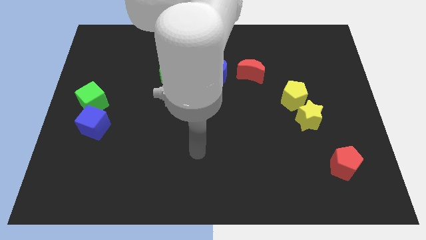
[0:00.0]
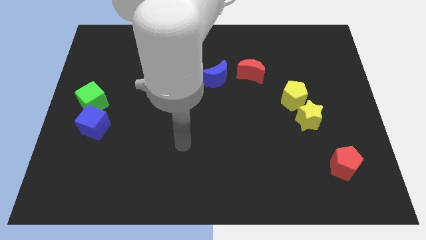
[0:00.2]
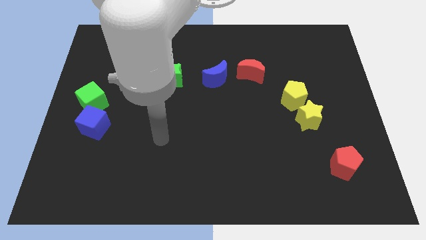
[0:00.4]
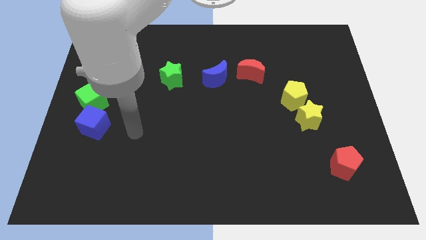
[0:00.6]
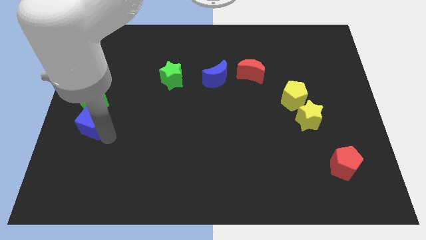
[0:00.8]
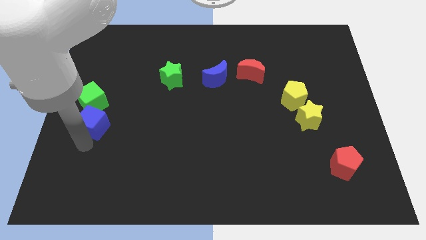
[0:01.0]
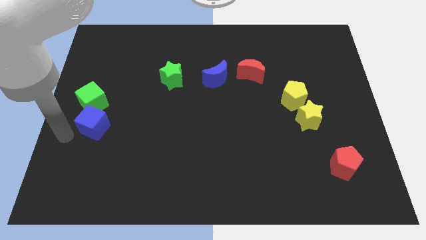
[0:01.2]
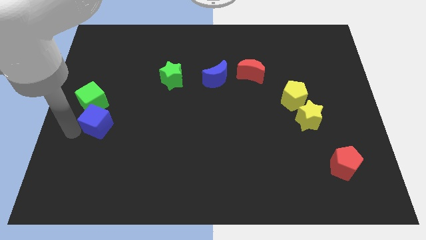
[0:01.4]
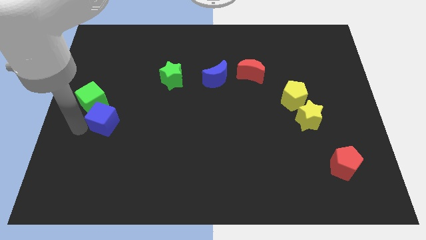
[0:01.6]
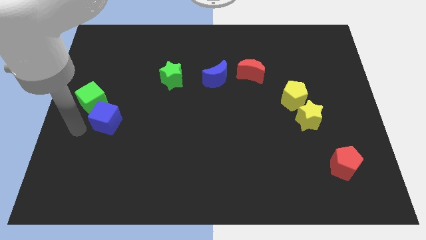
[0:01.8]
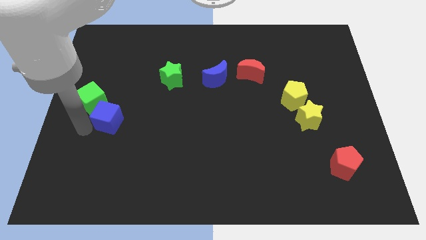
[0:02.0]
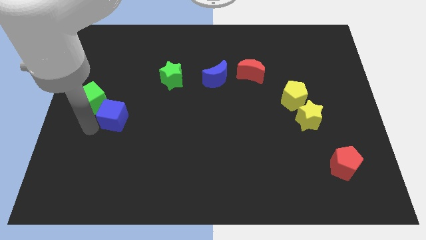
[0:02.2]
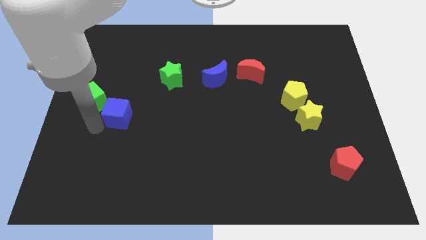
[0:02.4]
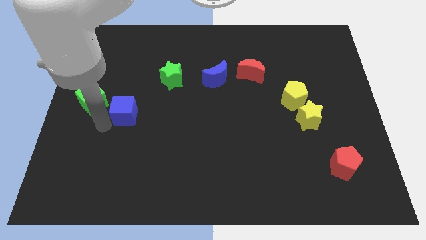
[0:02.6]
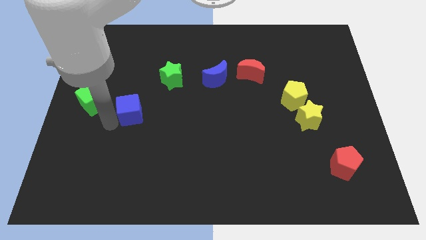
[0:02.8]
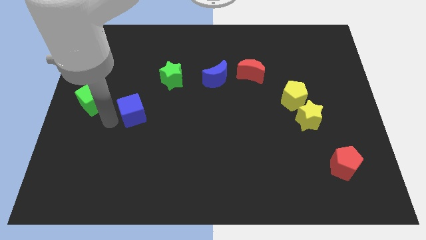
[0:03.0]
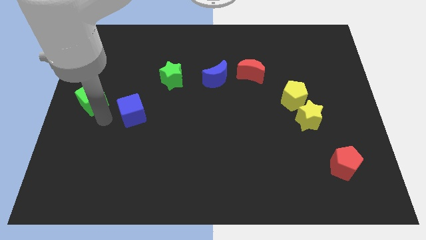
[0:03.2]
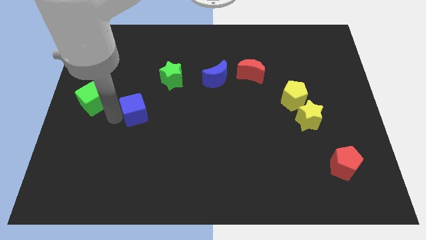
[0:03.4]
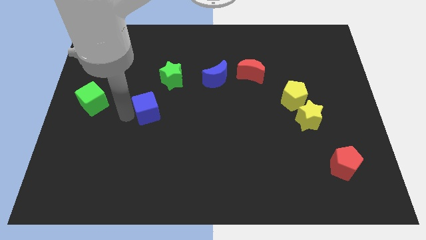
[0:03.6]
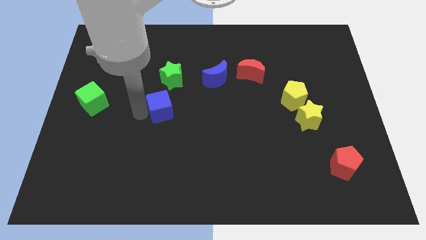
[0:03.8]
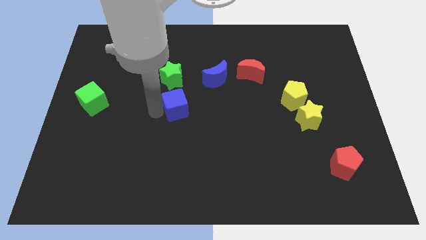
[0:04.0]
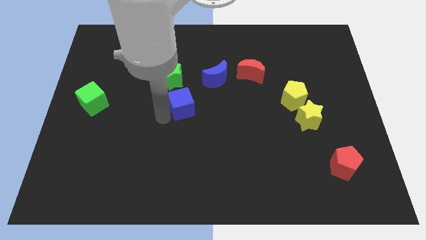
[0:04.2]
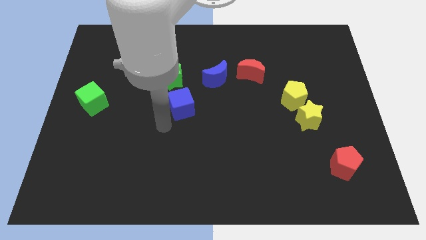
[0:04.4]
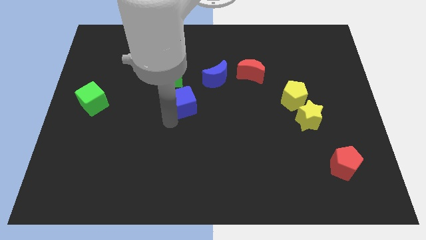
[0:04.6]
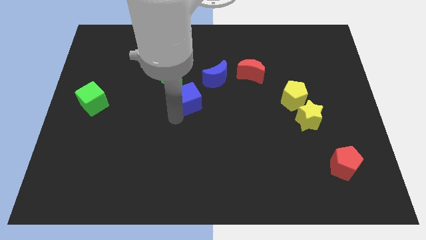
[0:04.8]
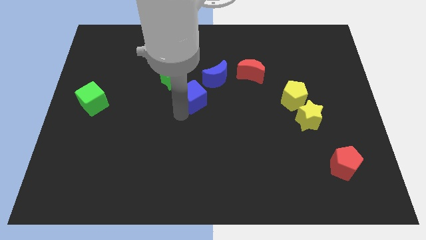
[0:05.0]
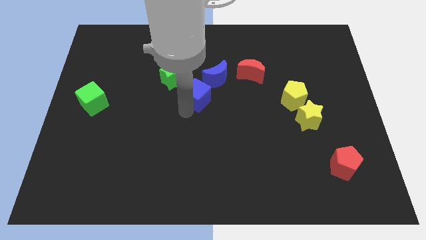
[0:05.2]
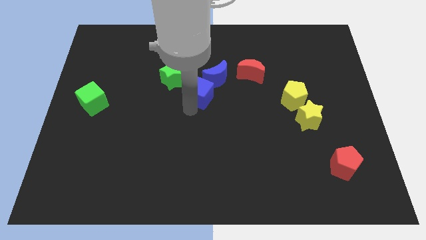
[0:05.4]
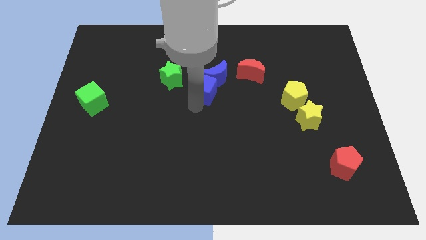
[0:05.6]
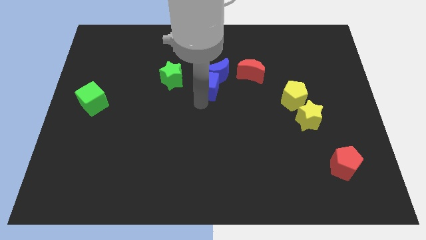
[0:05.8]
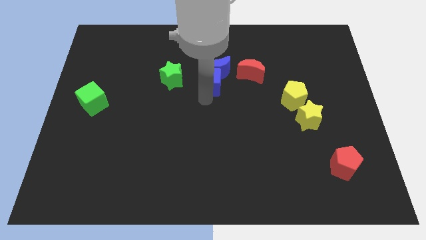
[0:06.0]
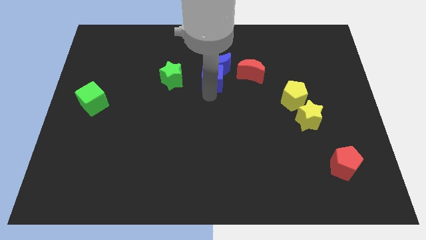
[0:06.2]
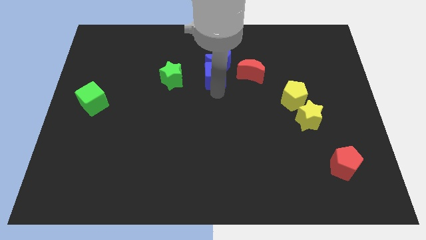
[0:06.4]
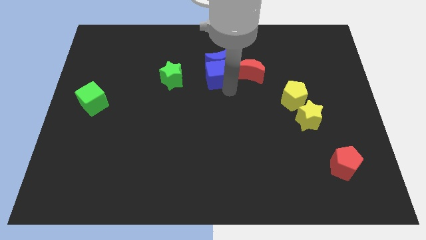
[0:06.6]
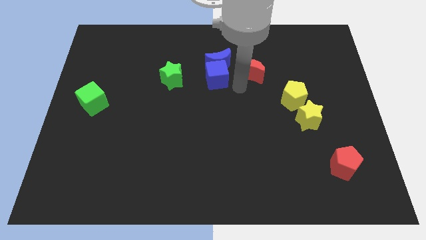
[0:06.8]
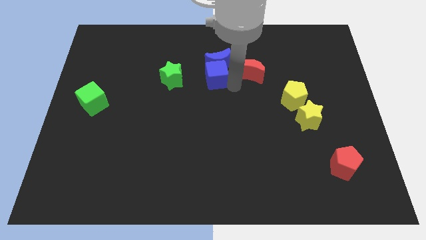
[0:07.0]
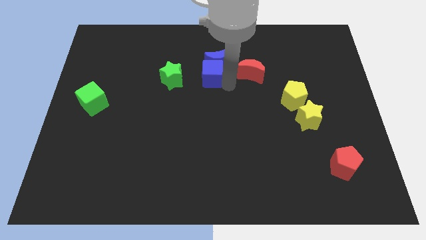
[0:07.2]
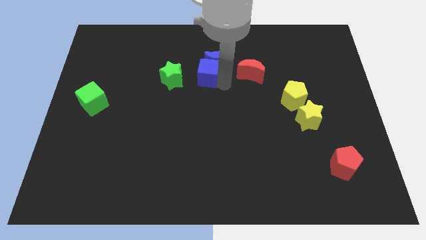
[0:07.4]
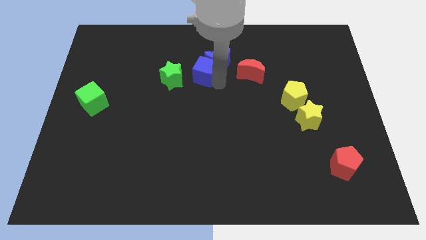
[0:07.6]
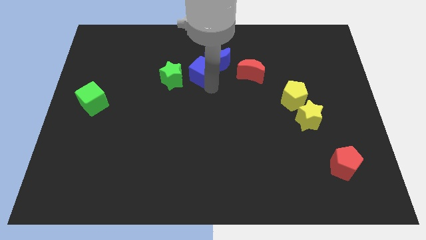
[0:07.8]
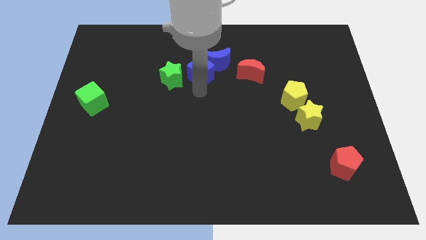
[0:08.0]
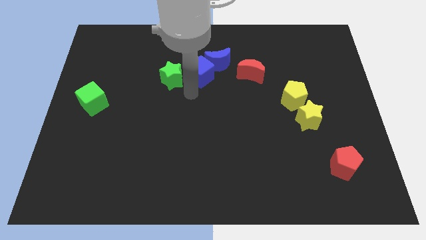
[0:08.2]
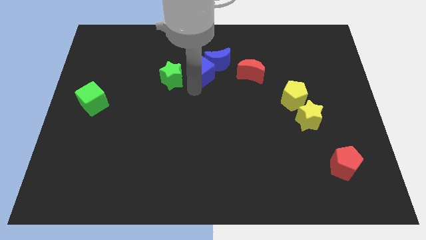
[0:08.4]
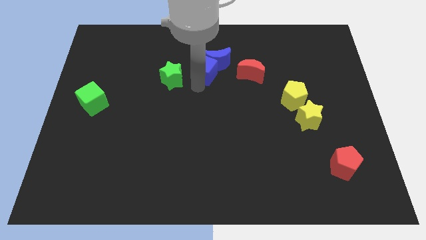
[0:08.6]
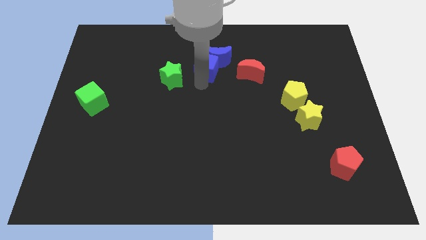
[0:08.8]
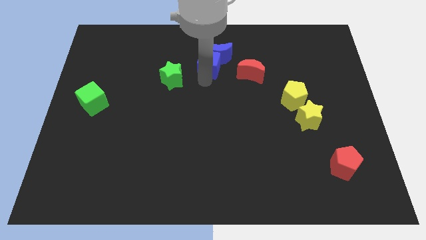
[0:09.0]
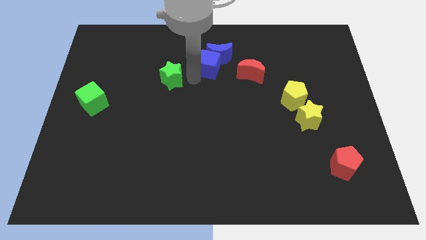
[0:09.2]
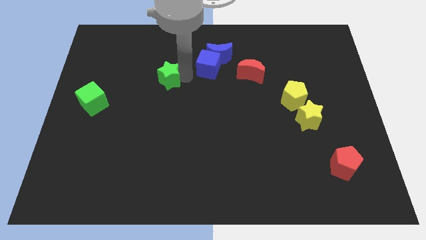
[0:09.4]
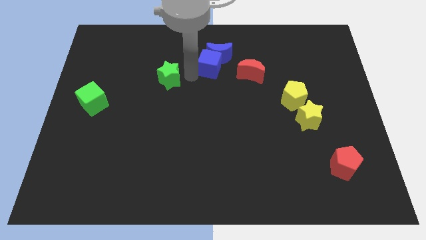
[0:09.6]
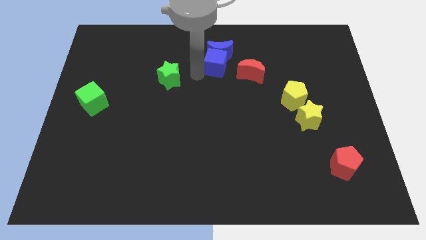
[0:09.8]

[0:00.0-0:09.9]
push the blue cube diagonally up and to the left of the red moon

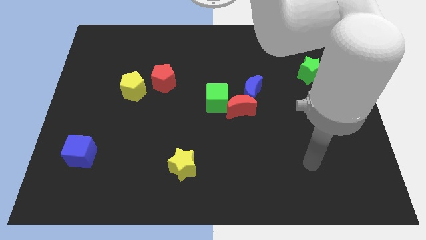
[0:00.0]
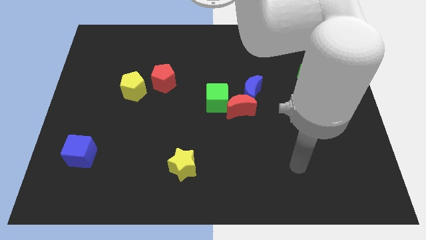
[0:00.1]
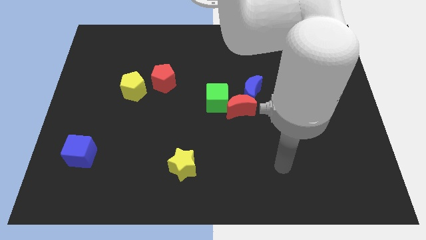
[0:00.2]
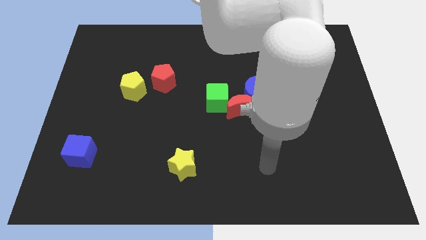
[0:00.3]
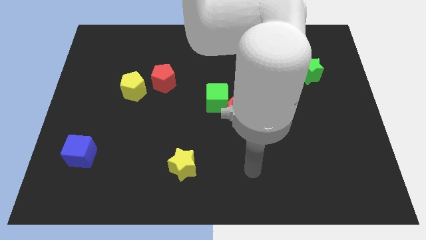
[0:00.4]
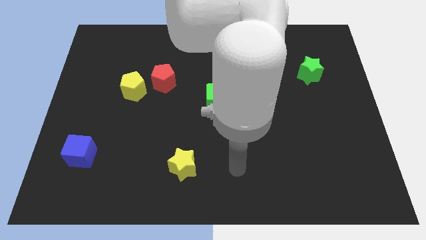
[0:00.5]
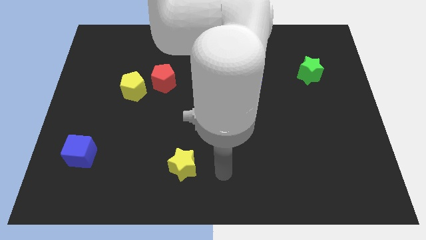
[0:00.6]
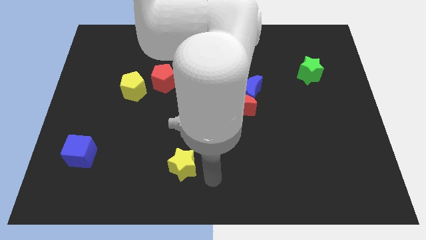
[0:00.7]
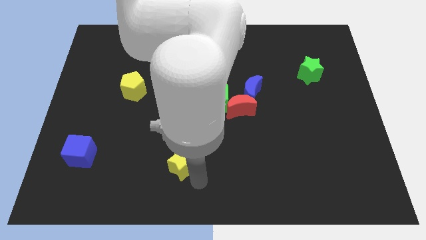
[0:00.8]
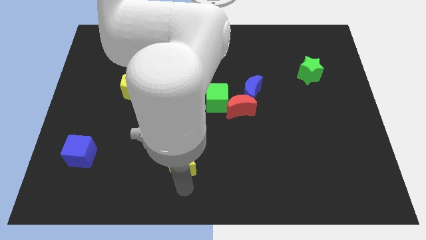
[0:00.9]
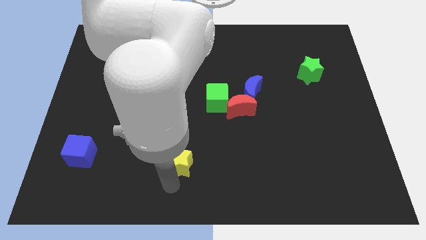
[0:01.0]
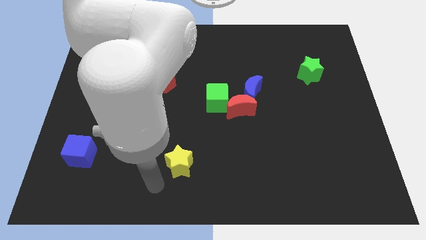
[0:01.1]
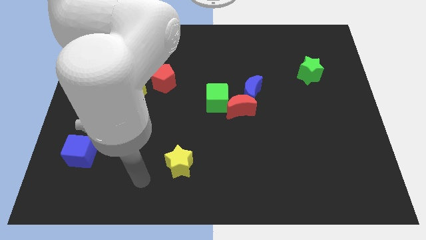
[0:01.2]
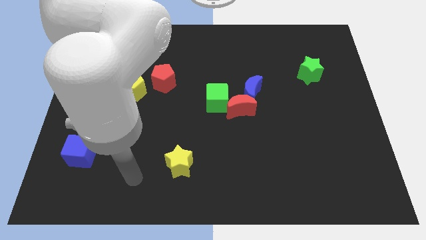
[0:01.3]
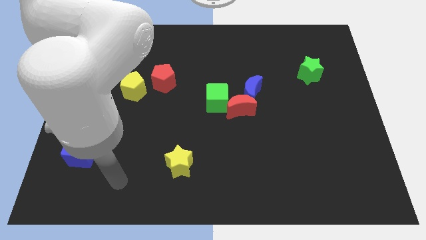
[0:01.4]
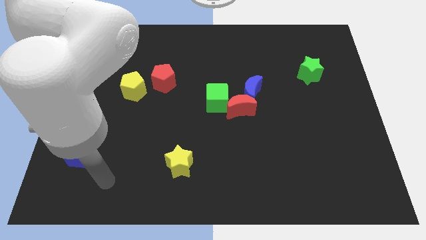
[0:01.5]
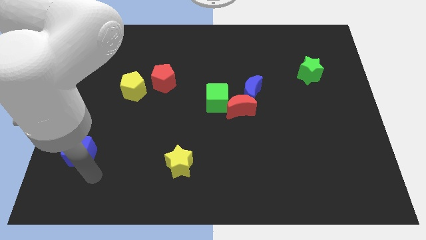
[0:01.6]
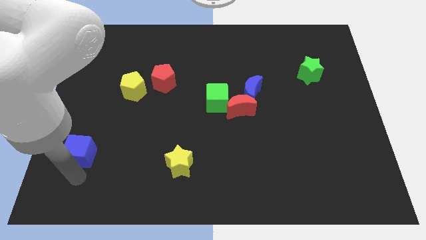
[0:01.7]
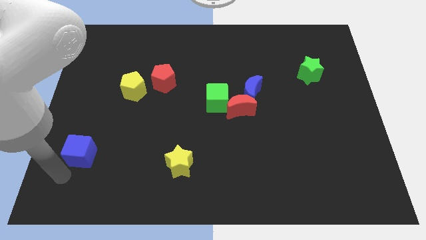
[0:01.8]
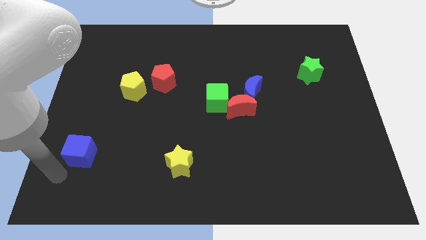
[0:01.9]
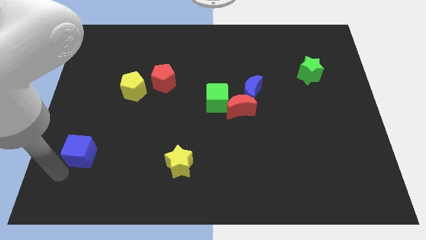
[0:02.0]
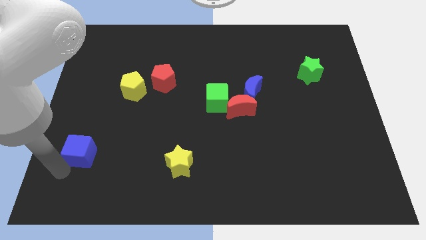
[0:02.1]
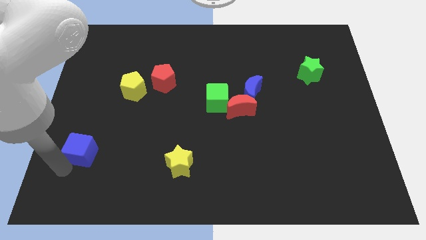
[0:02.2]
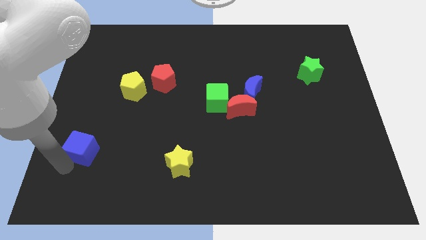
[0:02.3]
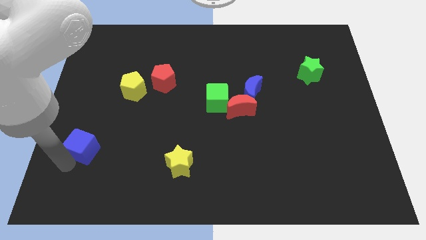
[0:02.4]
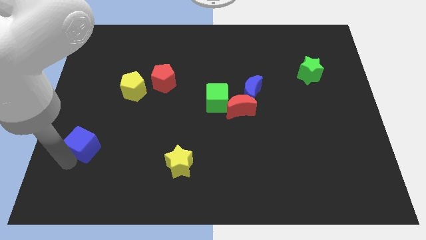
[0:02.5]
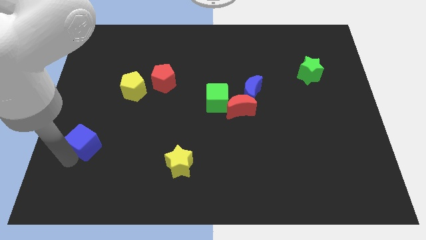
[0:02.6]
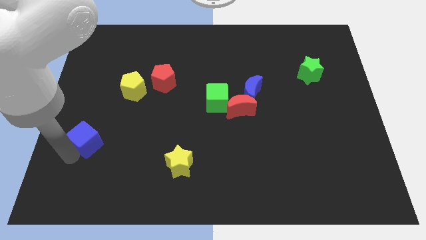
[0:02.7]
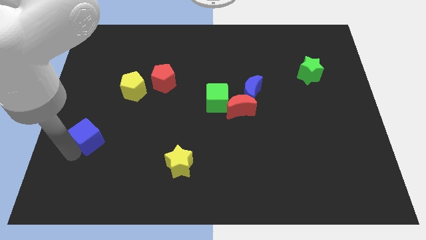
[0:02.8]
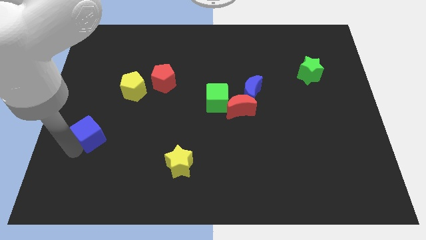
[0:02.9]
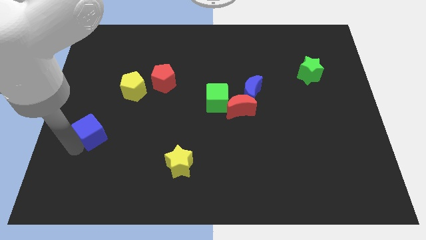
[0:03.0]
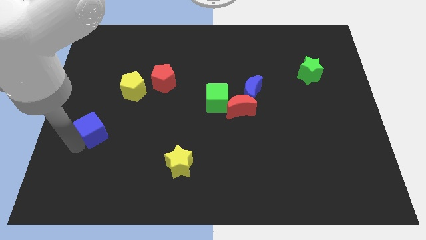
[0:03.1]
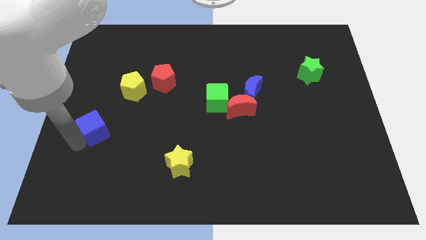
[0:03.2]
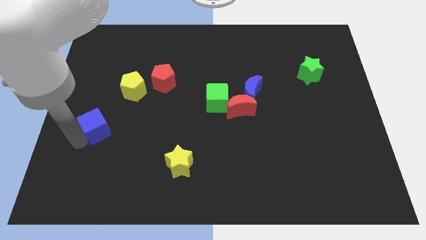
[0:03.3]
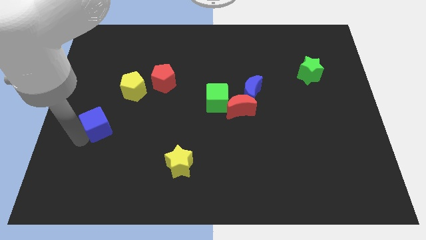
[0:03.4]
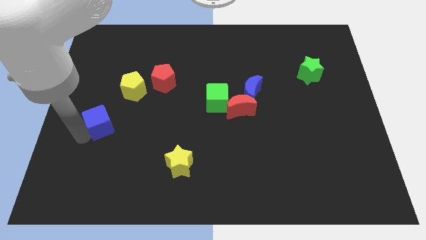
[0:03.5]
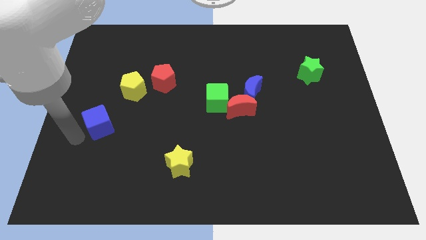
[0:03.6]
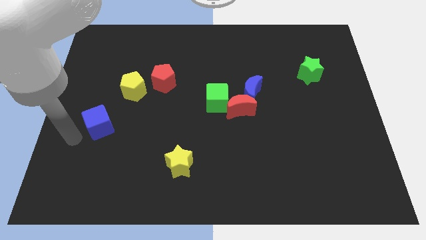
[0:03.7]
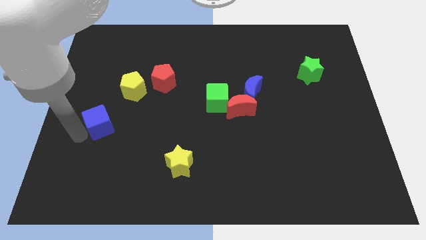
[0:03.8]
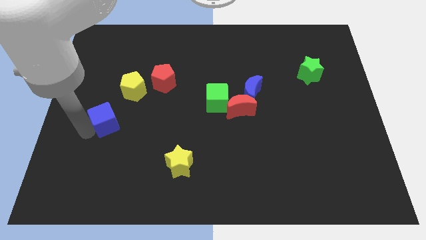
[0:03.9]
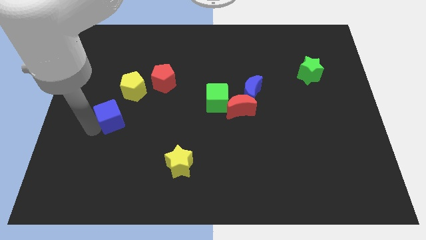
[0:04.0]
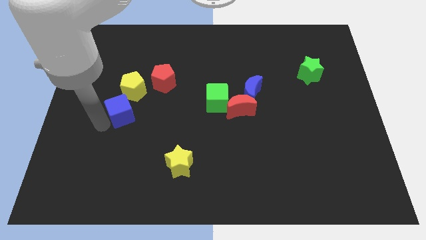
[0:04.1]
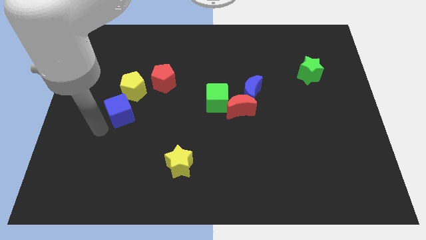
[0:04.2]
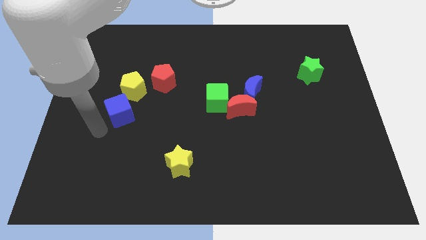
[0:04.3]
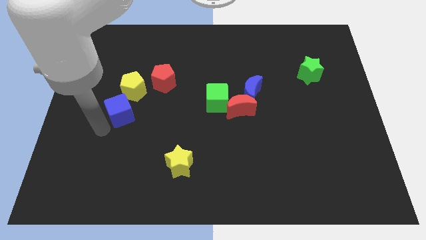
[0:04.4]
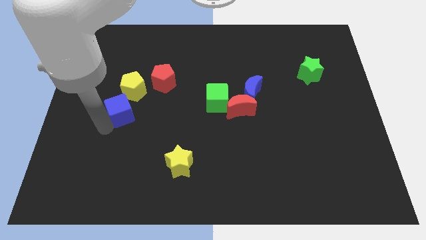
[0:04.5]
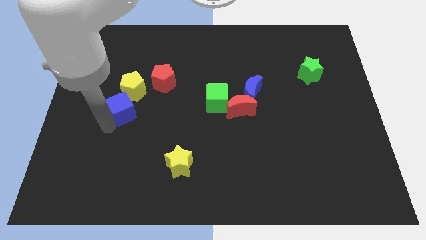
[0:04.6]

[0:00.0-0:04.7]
move the blue cube to the bottom left of the red pentagon
